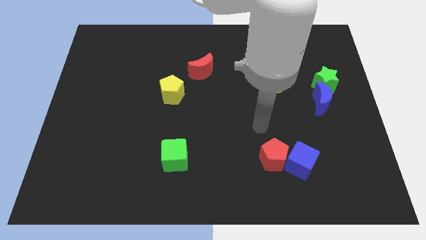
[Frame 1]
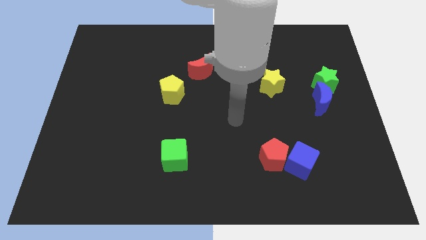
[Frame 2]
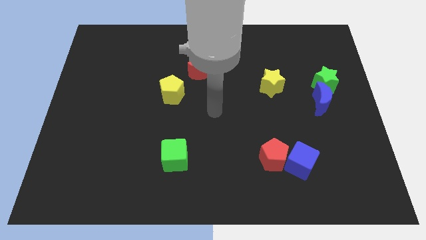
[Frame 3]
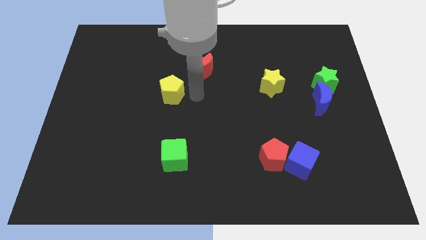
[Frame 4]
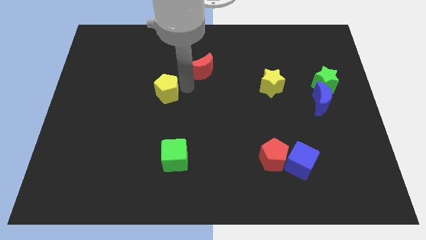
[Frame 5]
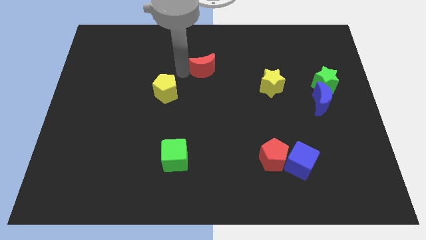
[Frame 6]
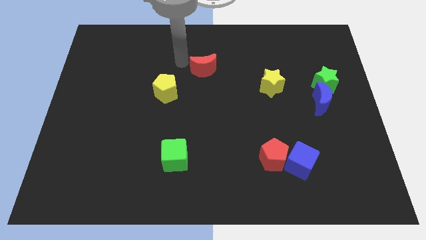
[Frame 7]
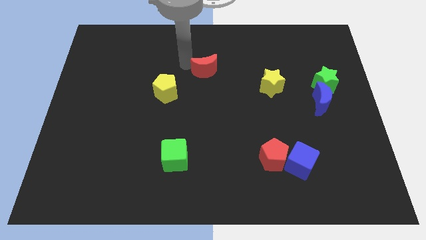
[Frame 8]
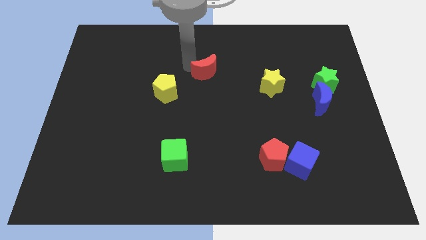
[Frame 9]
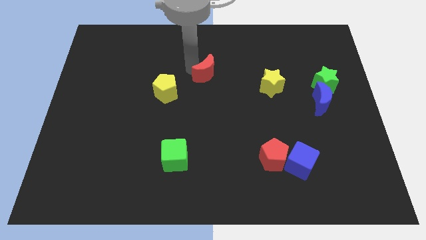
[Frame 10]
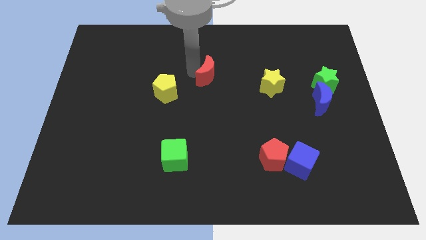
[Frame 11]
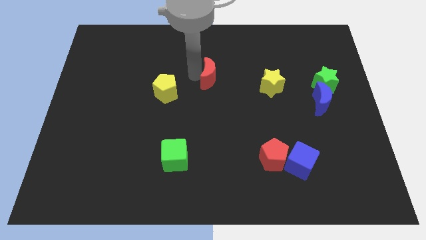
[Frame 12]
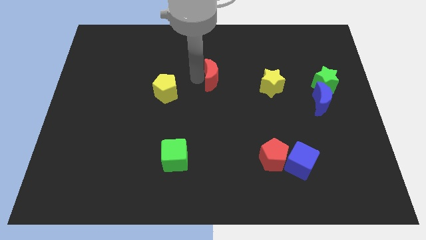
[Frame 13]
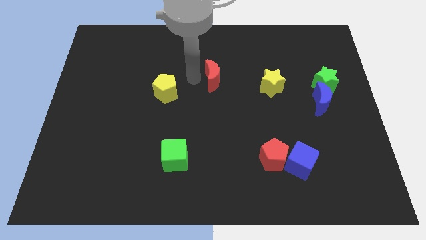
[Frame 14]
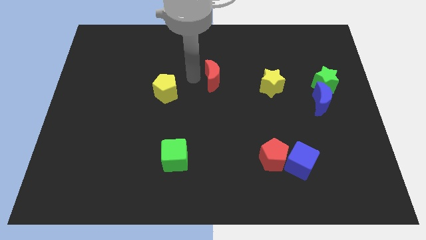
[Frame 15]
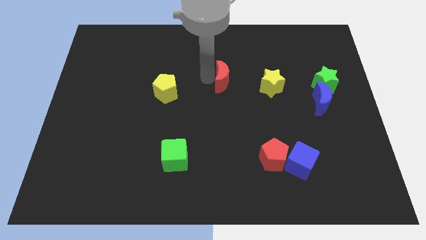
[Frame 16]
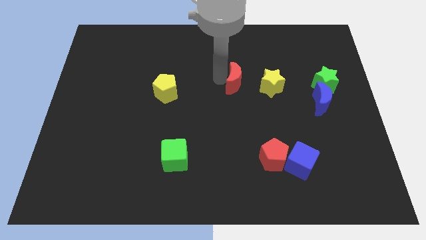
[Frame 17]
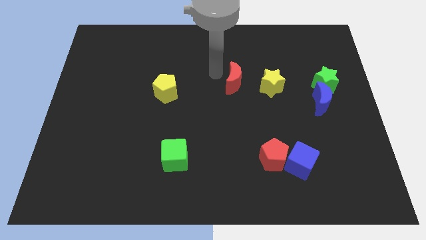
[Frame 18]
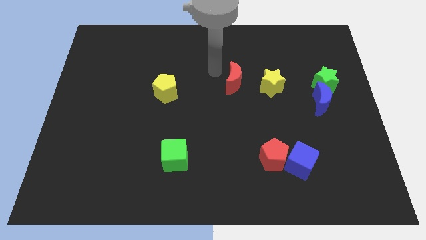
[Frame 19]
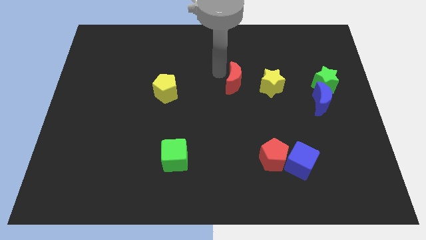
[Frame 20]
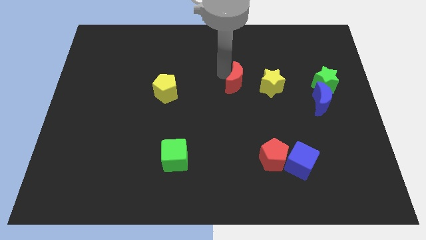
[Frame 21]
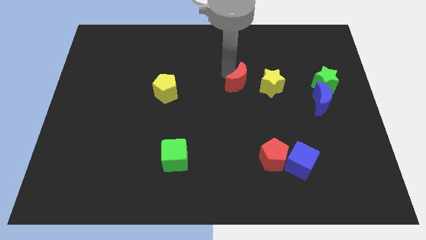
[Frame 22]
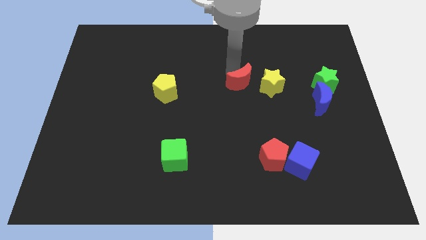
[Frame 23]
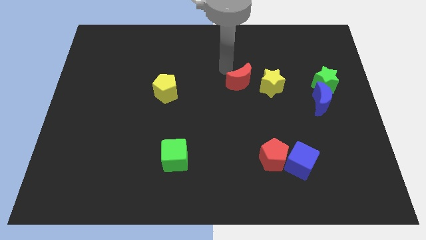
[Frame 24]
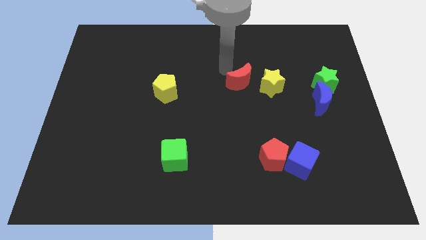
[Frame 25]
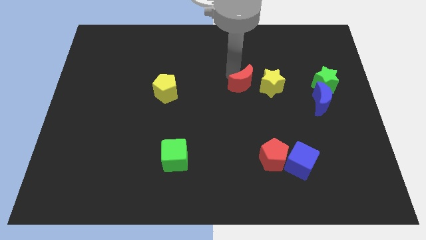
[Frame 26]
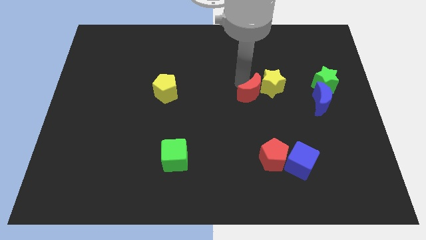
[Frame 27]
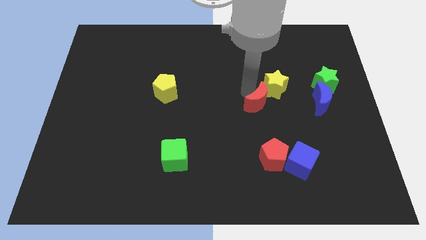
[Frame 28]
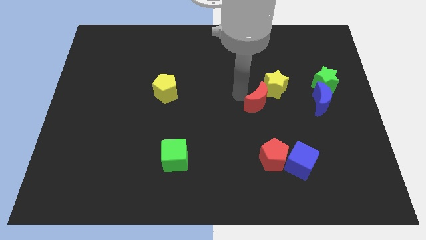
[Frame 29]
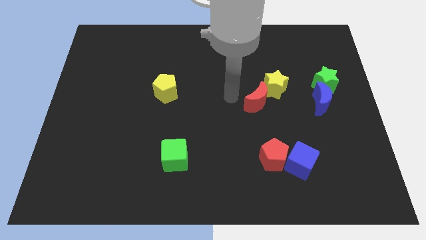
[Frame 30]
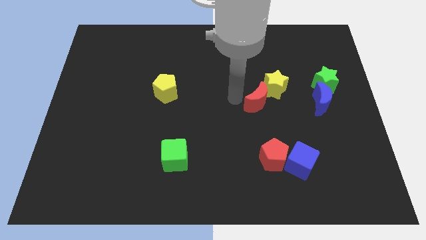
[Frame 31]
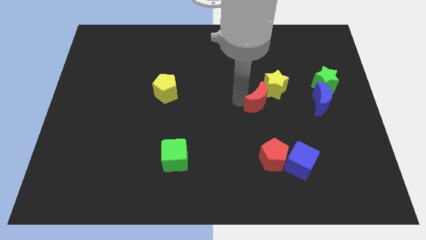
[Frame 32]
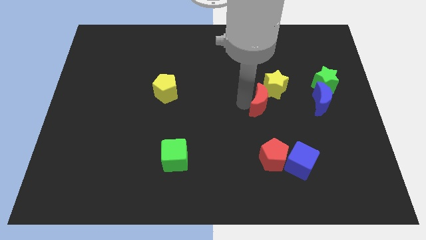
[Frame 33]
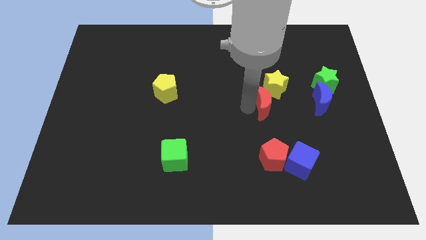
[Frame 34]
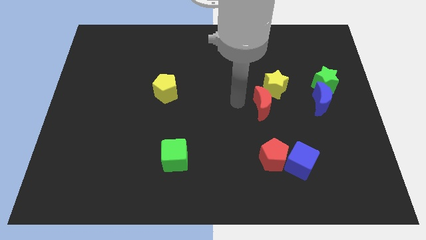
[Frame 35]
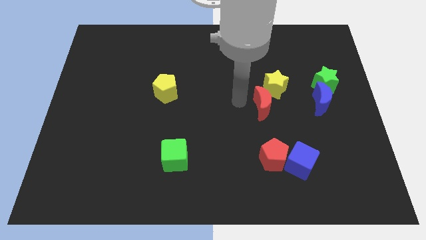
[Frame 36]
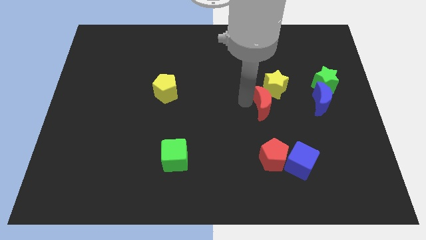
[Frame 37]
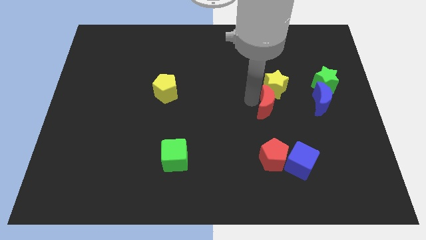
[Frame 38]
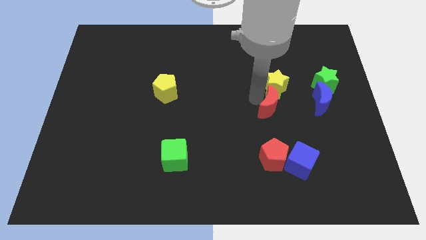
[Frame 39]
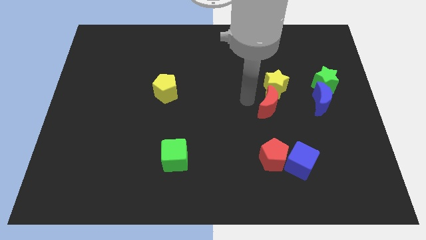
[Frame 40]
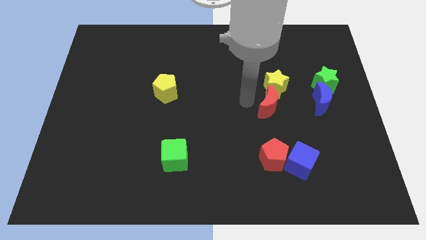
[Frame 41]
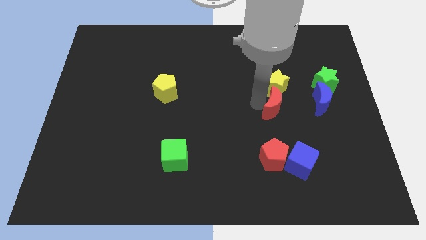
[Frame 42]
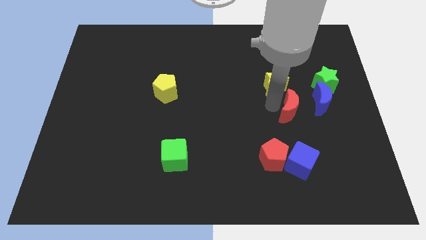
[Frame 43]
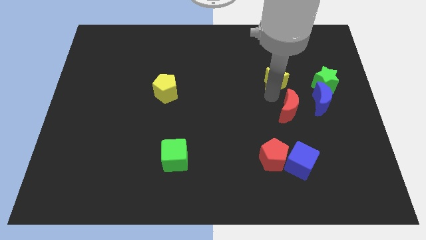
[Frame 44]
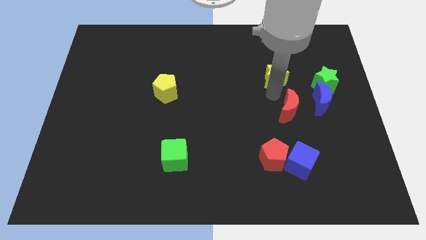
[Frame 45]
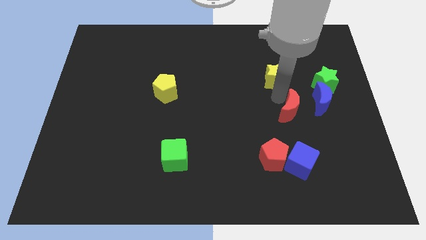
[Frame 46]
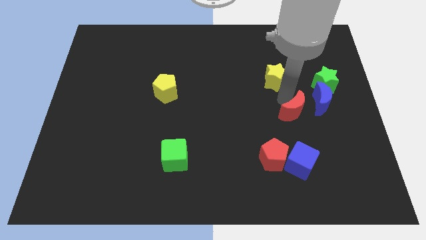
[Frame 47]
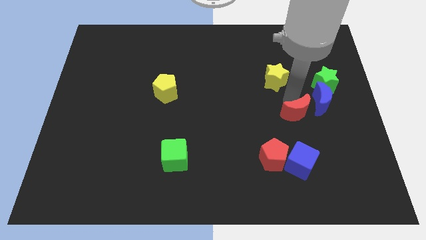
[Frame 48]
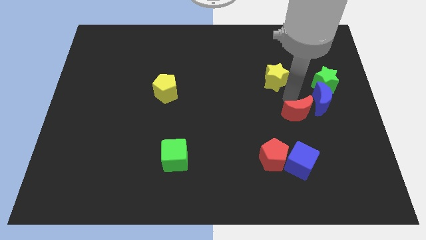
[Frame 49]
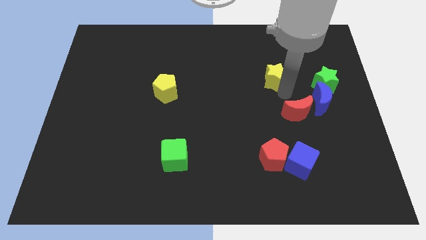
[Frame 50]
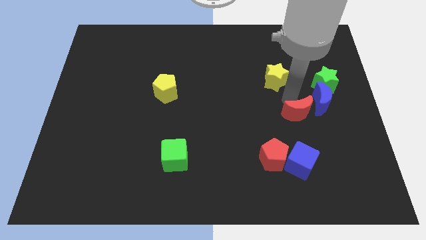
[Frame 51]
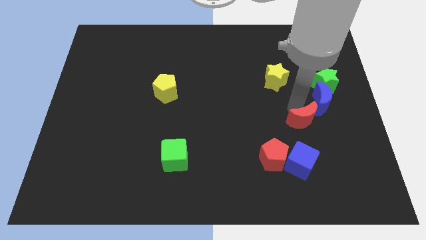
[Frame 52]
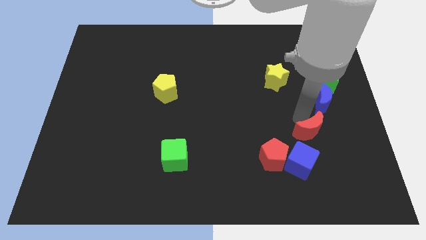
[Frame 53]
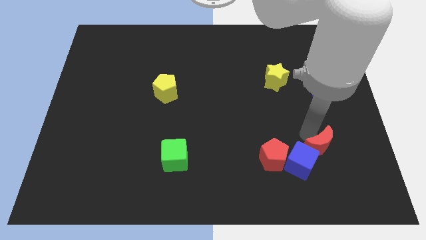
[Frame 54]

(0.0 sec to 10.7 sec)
move the red moon to the right side of the blue cube

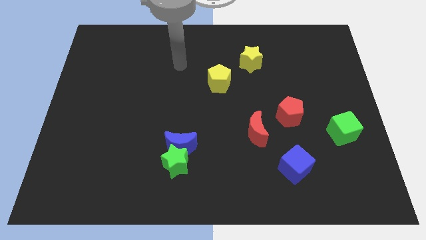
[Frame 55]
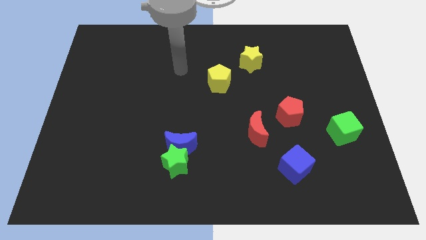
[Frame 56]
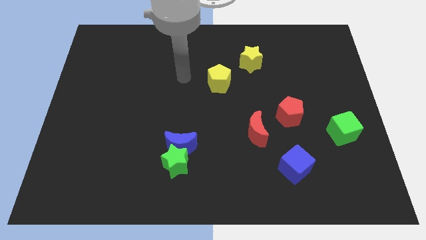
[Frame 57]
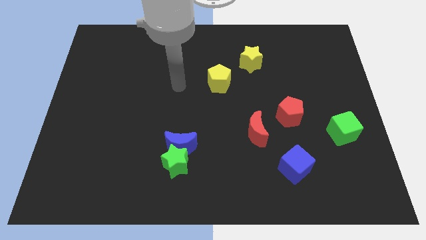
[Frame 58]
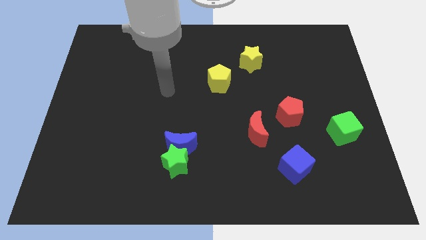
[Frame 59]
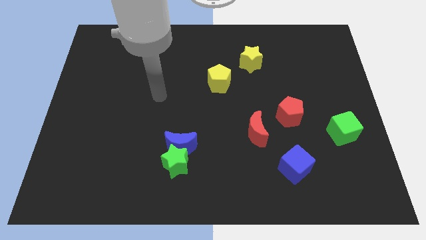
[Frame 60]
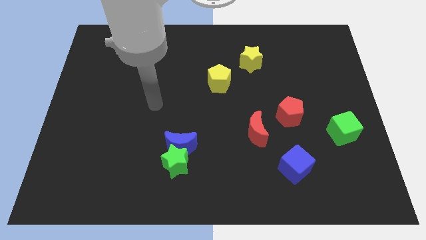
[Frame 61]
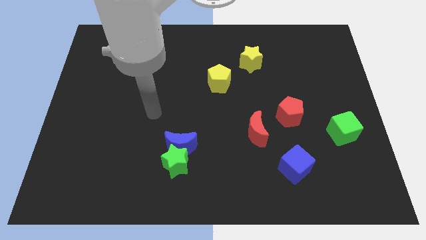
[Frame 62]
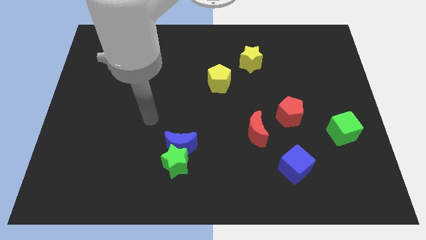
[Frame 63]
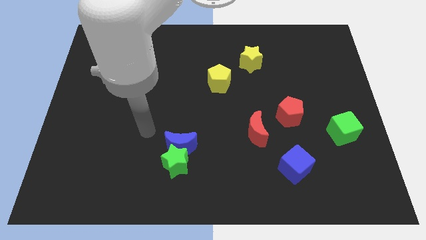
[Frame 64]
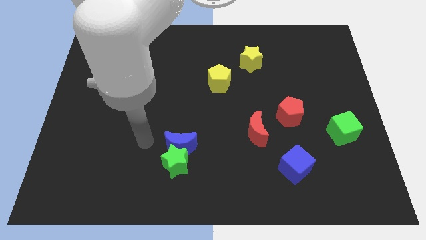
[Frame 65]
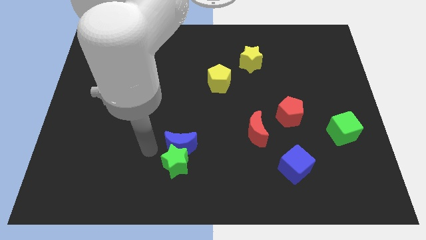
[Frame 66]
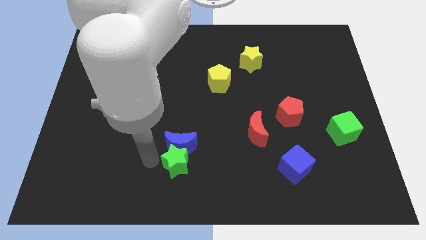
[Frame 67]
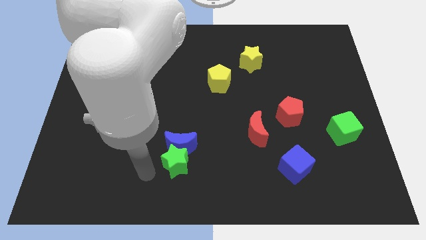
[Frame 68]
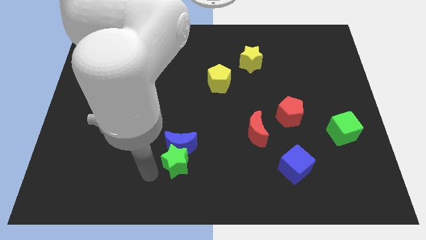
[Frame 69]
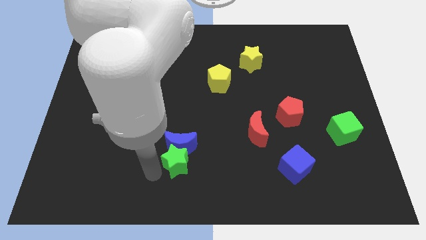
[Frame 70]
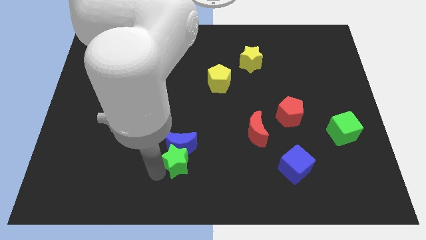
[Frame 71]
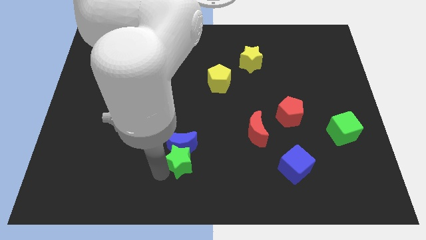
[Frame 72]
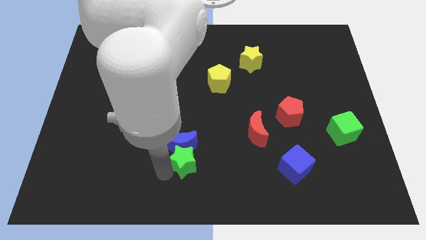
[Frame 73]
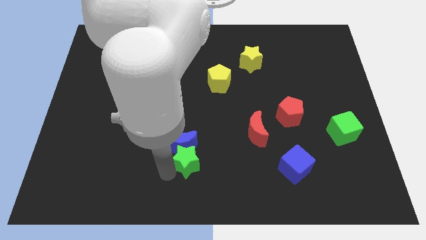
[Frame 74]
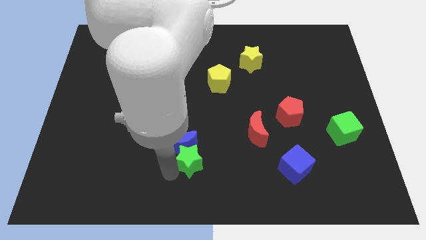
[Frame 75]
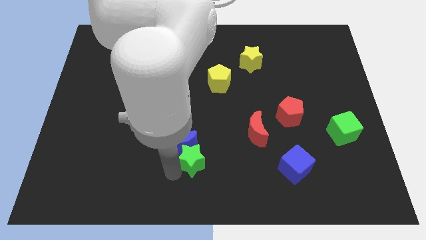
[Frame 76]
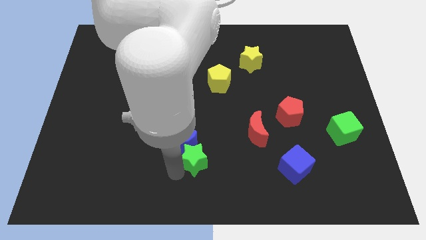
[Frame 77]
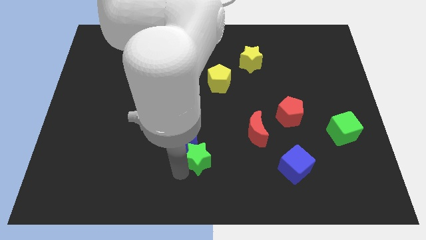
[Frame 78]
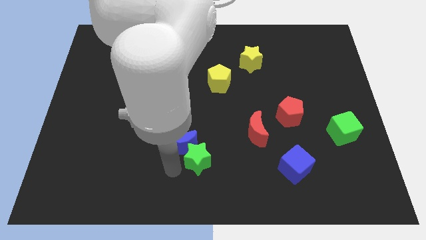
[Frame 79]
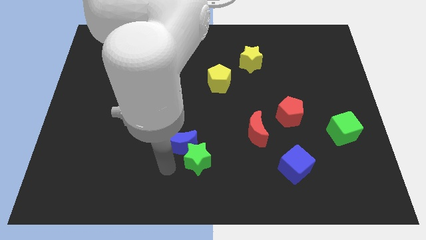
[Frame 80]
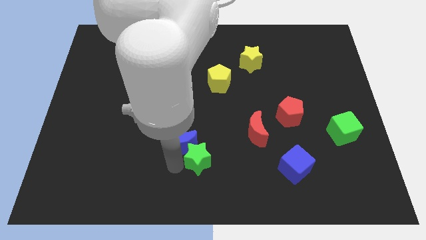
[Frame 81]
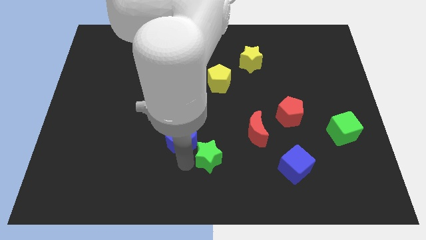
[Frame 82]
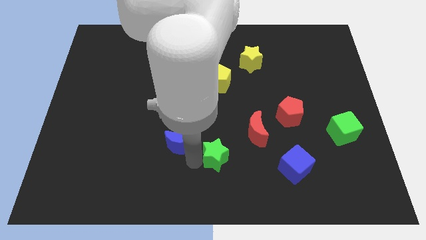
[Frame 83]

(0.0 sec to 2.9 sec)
move the green star to the bottom left of the red moon
